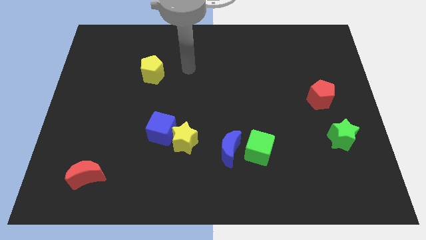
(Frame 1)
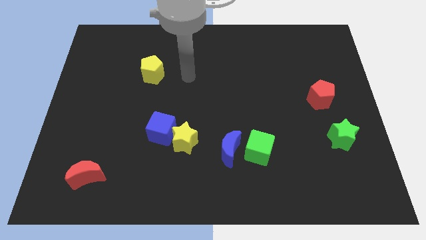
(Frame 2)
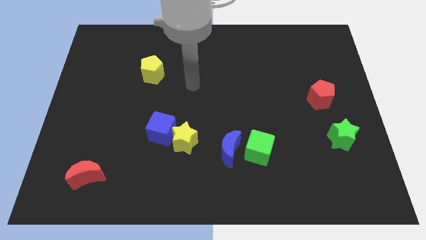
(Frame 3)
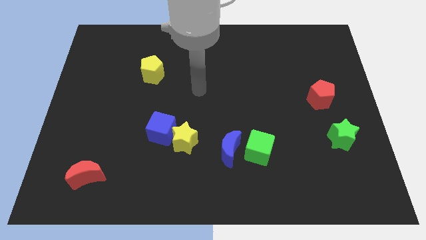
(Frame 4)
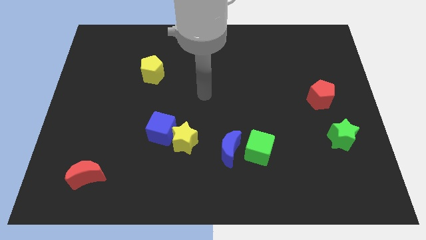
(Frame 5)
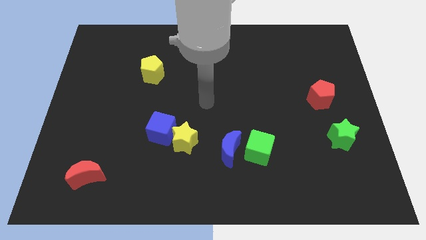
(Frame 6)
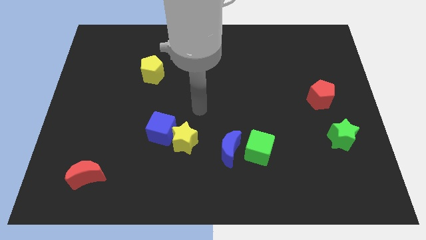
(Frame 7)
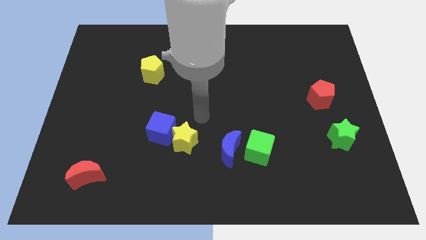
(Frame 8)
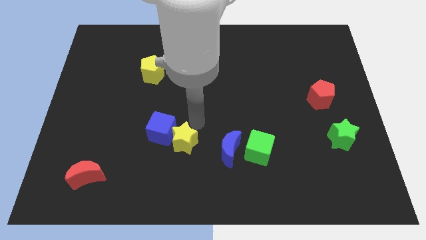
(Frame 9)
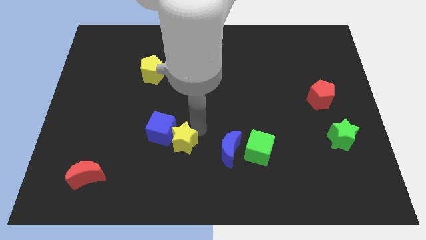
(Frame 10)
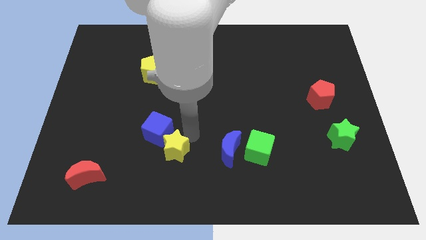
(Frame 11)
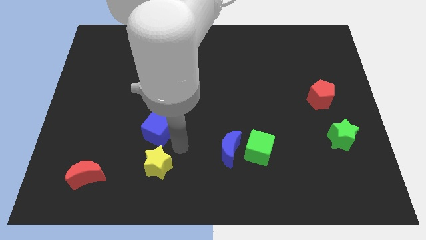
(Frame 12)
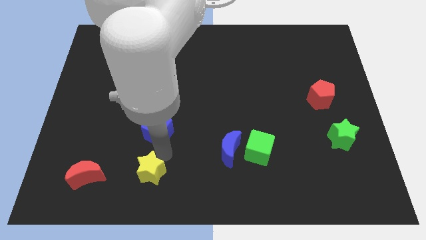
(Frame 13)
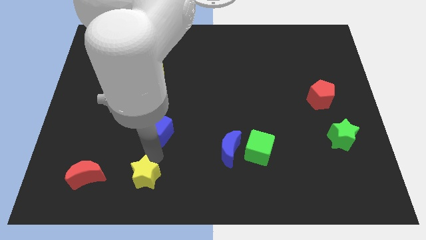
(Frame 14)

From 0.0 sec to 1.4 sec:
pull the blue cube apart from the yellow star

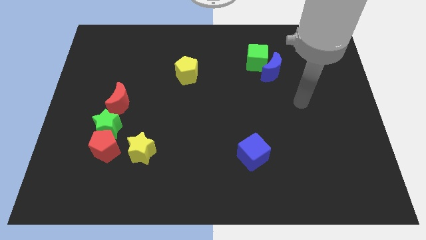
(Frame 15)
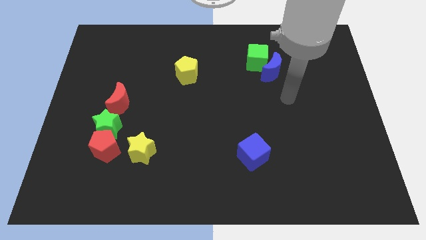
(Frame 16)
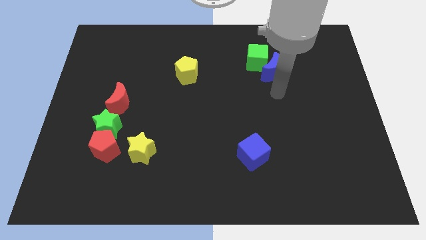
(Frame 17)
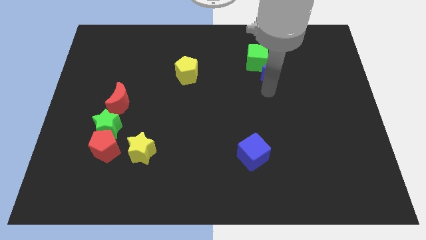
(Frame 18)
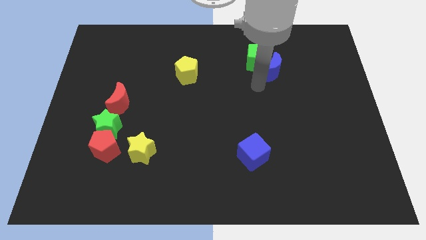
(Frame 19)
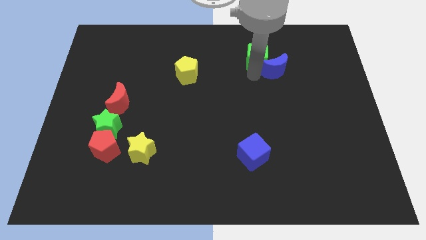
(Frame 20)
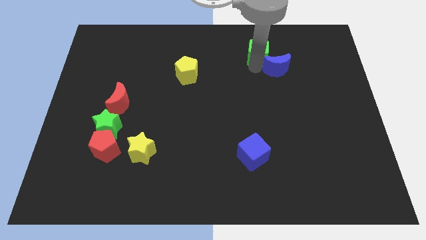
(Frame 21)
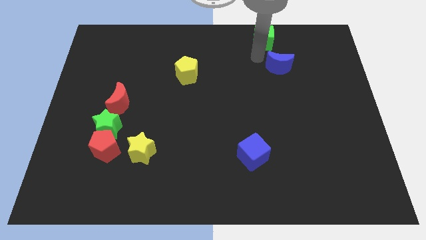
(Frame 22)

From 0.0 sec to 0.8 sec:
separate the blue moon from the green cube

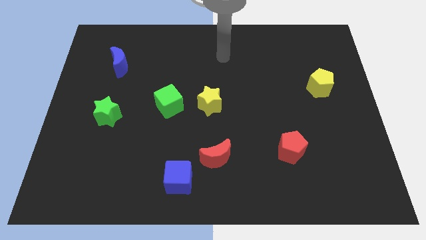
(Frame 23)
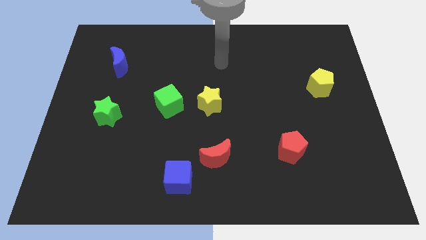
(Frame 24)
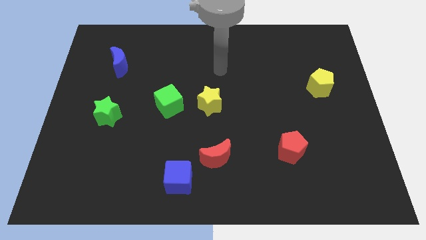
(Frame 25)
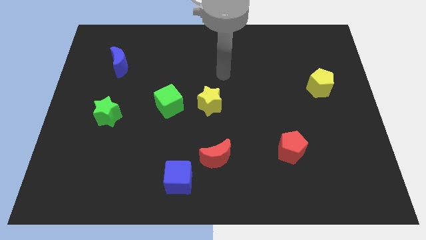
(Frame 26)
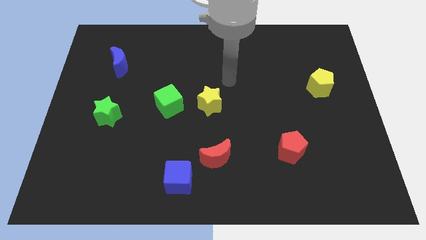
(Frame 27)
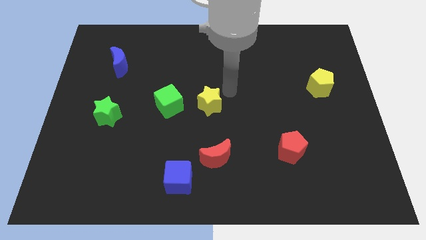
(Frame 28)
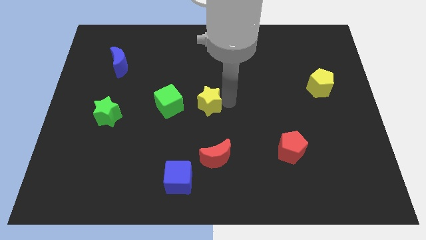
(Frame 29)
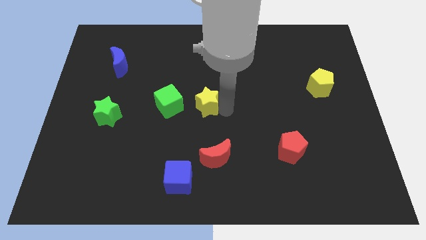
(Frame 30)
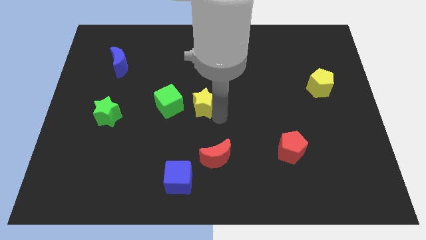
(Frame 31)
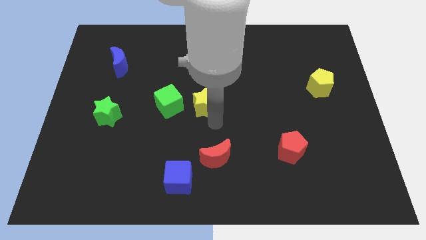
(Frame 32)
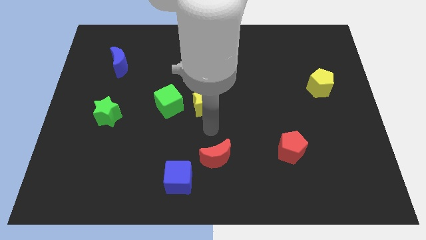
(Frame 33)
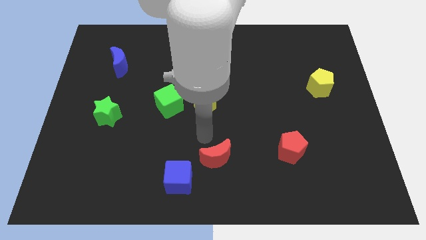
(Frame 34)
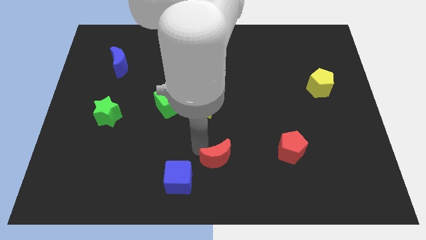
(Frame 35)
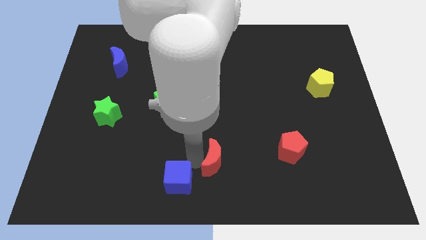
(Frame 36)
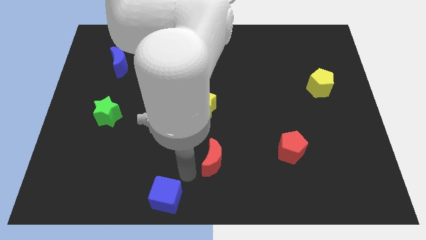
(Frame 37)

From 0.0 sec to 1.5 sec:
move the red moon away from the blue cube

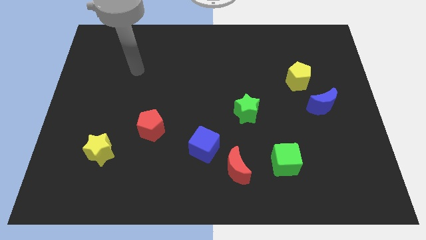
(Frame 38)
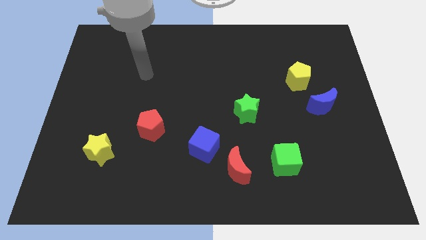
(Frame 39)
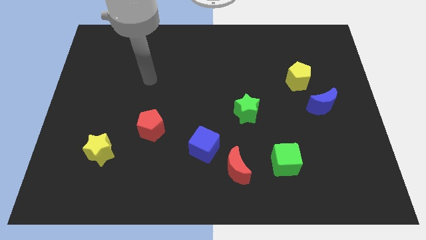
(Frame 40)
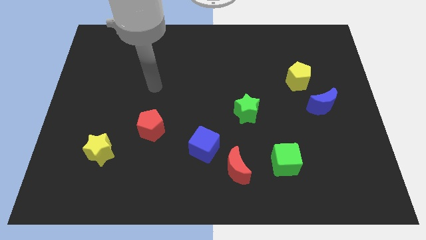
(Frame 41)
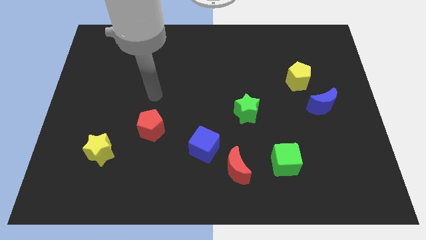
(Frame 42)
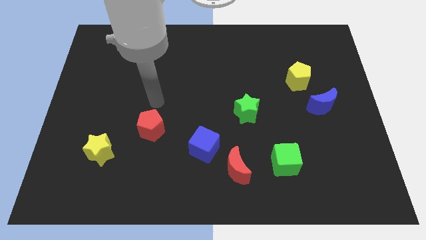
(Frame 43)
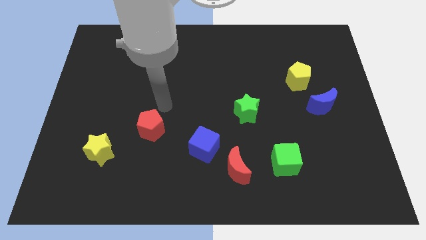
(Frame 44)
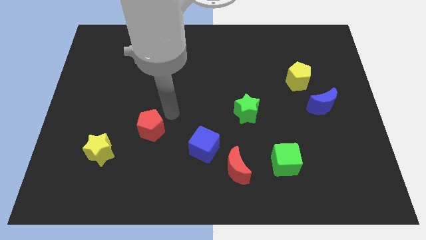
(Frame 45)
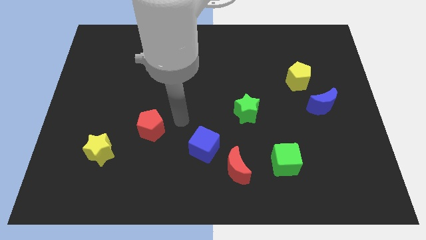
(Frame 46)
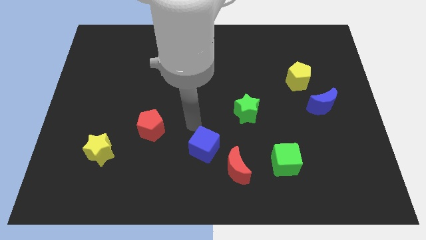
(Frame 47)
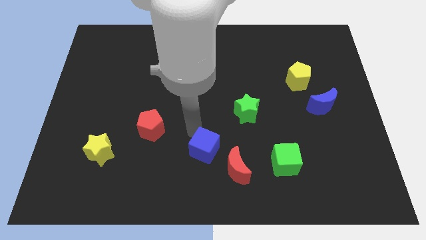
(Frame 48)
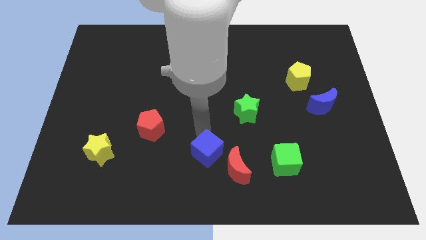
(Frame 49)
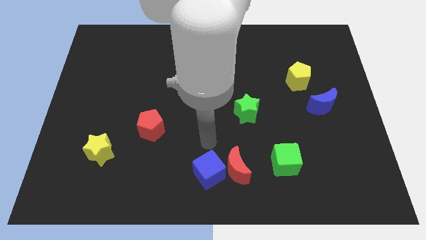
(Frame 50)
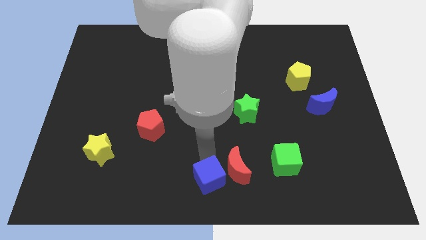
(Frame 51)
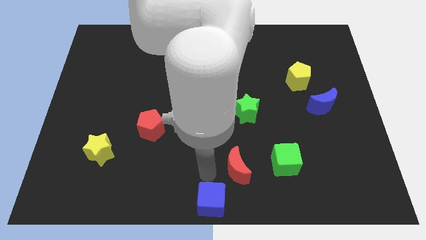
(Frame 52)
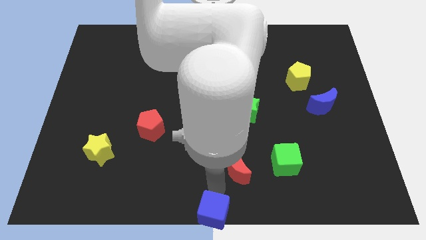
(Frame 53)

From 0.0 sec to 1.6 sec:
separate the red moon from the blue cube

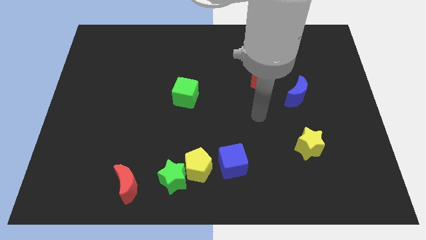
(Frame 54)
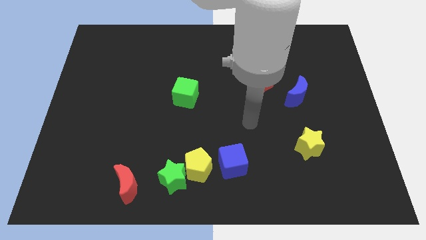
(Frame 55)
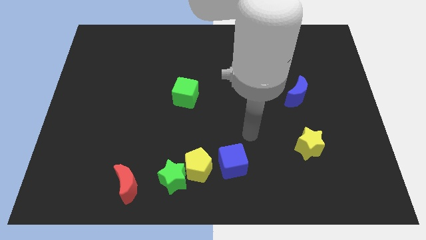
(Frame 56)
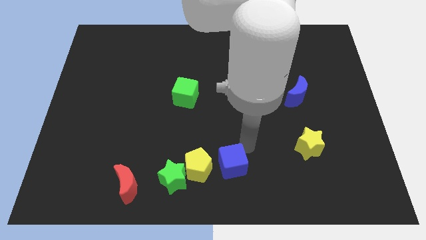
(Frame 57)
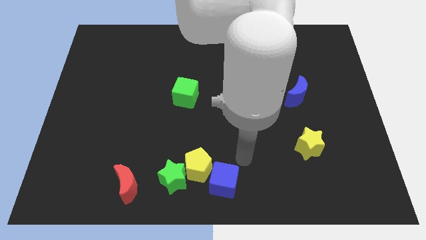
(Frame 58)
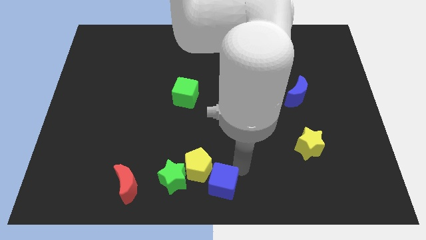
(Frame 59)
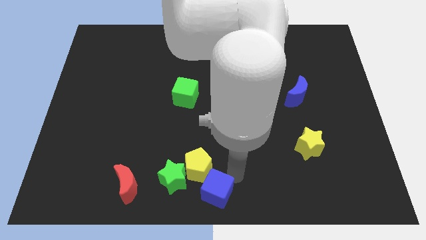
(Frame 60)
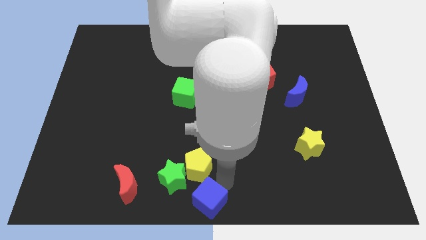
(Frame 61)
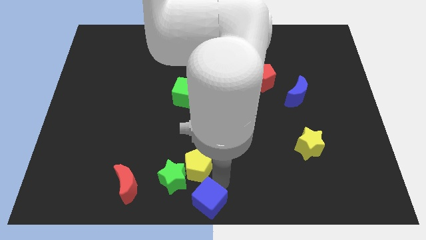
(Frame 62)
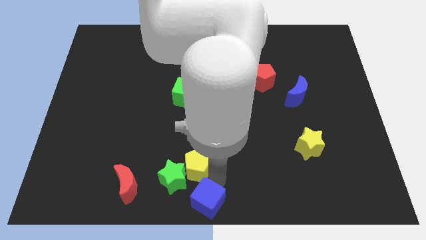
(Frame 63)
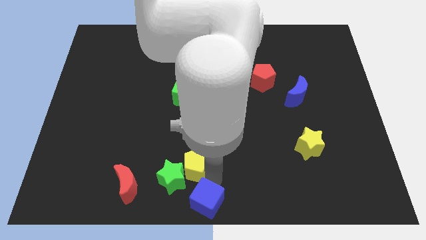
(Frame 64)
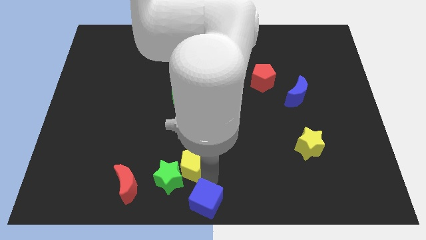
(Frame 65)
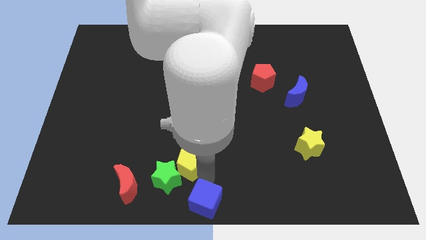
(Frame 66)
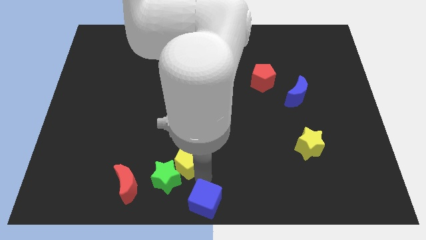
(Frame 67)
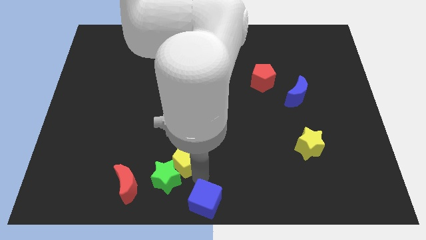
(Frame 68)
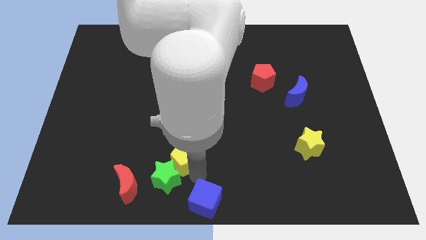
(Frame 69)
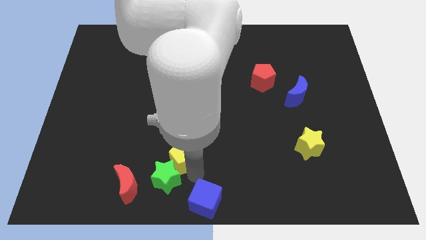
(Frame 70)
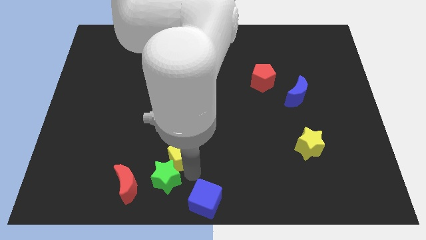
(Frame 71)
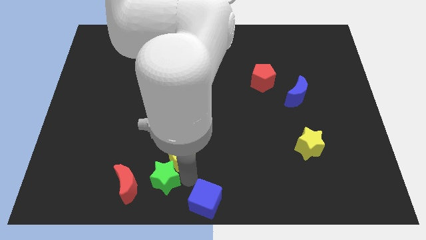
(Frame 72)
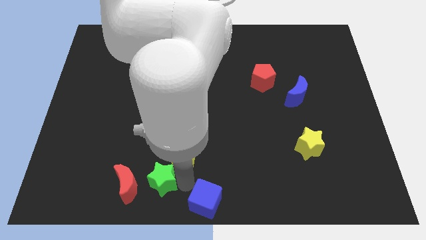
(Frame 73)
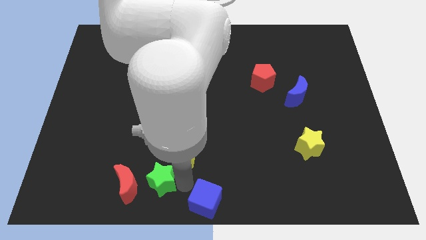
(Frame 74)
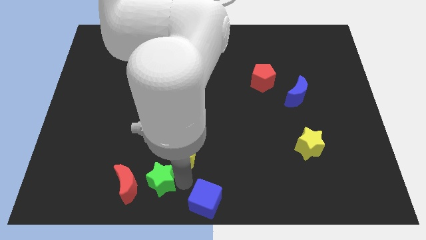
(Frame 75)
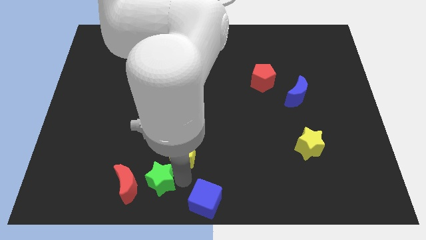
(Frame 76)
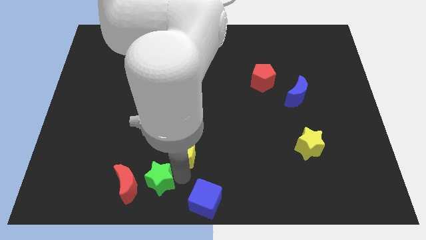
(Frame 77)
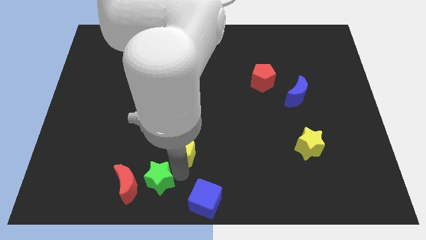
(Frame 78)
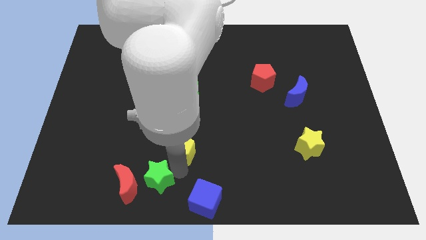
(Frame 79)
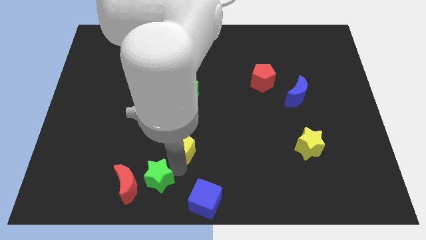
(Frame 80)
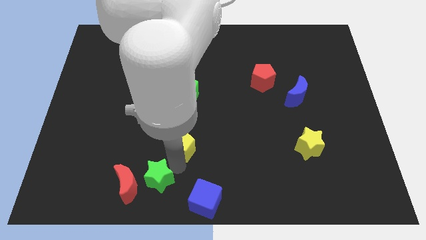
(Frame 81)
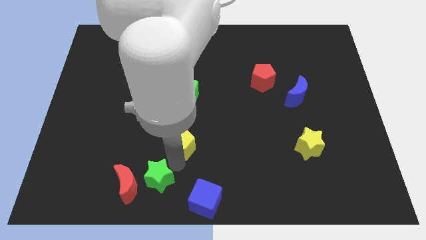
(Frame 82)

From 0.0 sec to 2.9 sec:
move the yellow pentagon away from the green star and blue cube

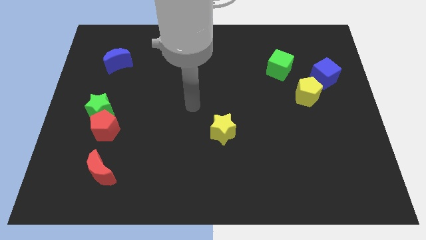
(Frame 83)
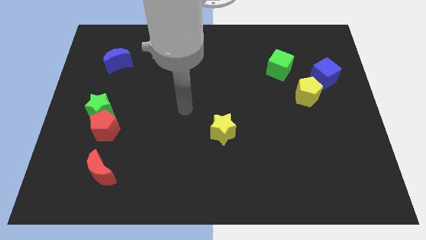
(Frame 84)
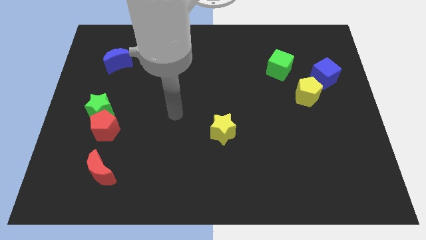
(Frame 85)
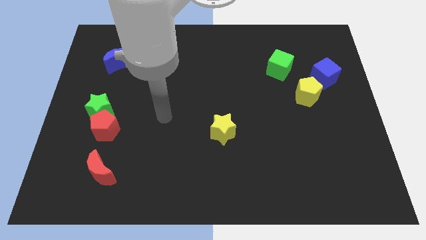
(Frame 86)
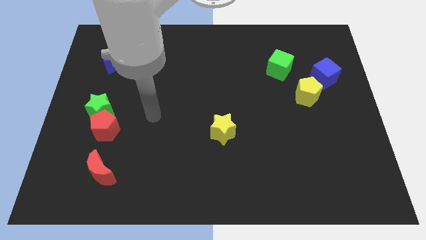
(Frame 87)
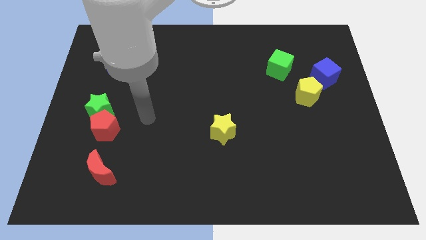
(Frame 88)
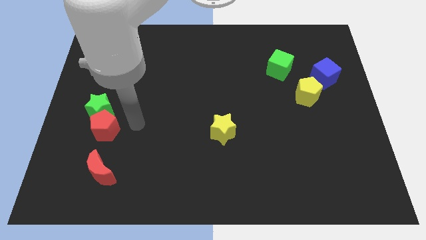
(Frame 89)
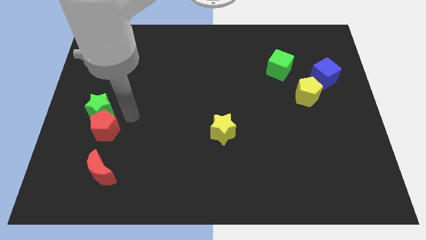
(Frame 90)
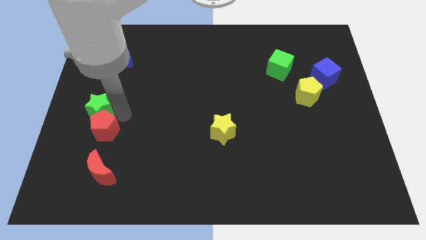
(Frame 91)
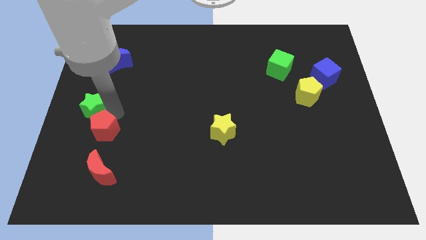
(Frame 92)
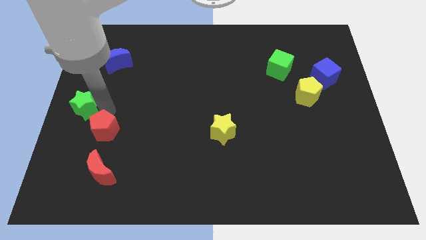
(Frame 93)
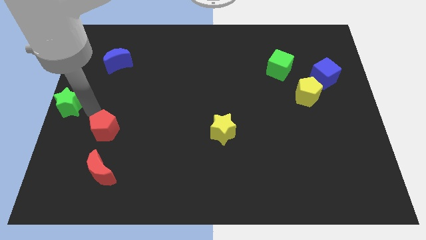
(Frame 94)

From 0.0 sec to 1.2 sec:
separate the red pentagon from the green star
